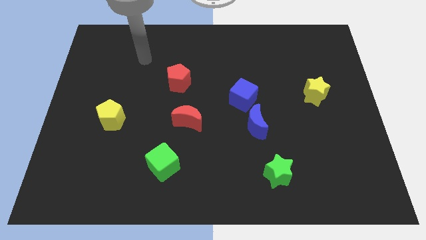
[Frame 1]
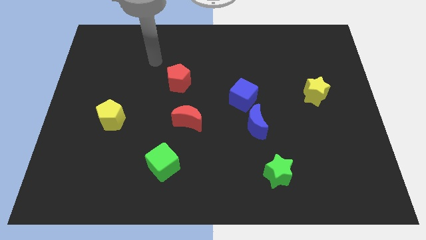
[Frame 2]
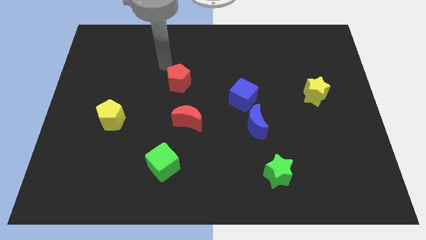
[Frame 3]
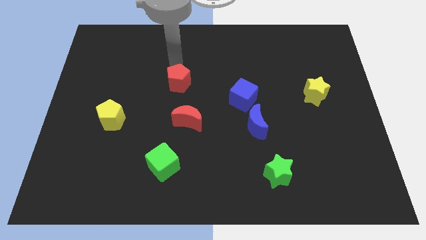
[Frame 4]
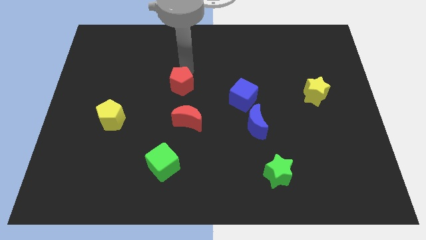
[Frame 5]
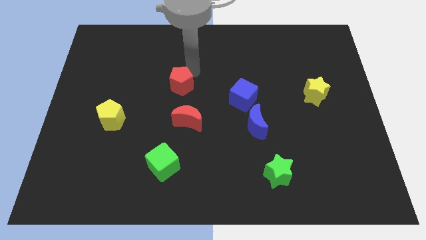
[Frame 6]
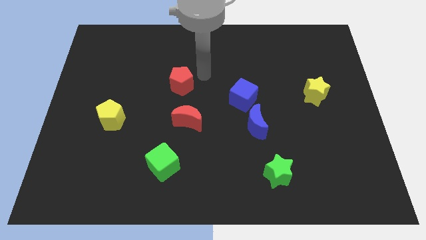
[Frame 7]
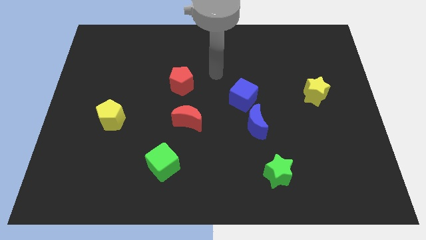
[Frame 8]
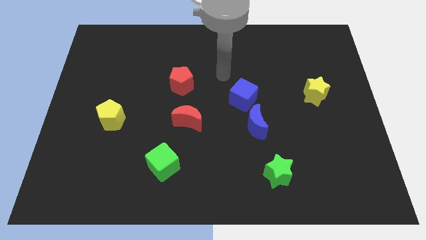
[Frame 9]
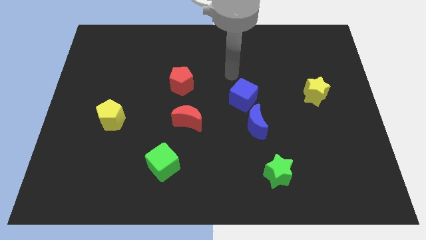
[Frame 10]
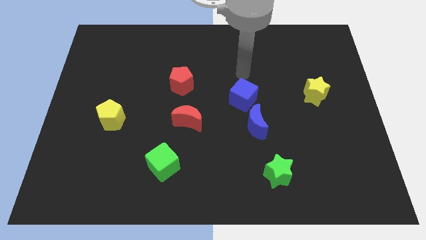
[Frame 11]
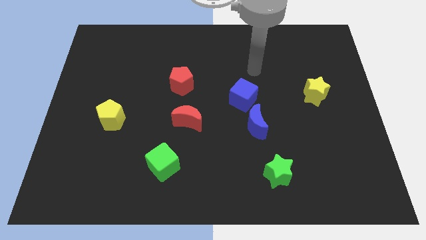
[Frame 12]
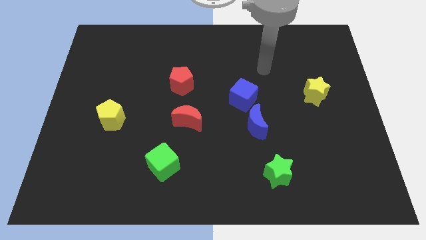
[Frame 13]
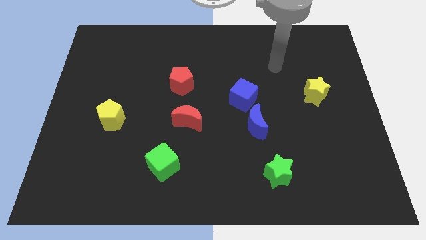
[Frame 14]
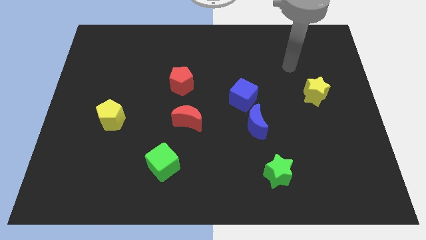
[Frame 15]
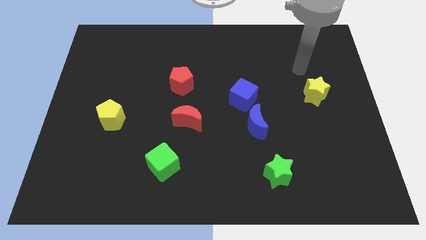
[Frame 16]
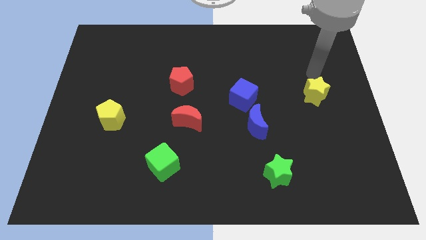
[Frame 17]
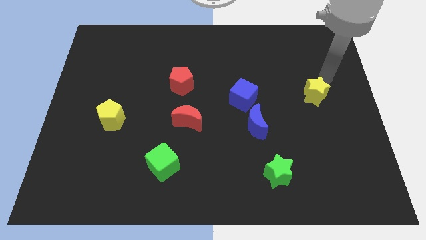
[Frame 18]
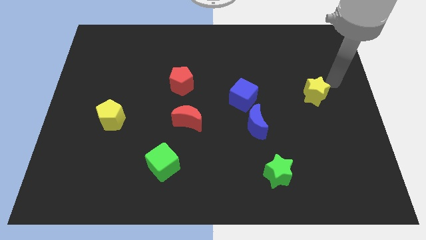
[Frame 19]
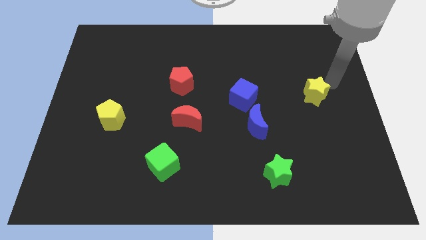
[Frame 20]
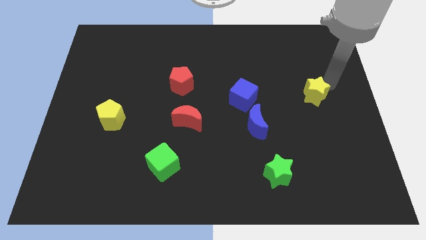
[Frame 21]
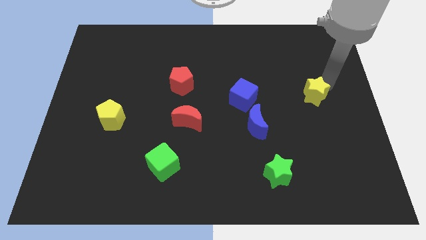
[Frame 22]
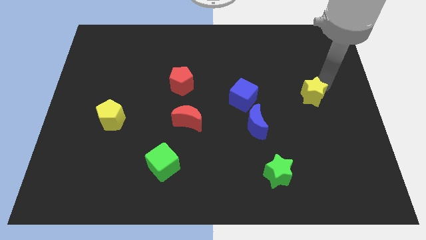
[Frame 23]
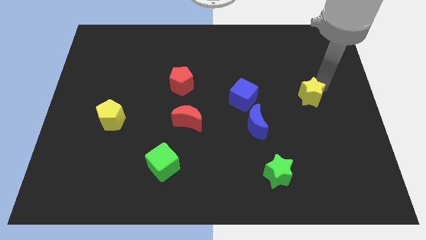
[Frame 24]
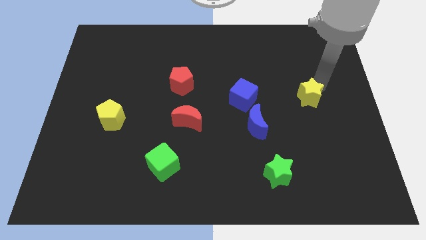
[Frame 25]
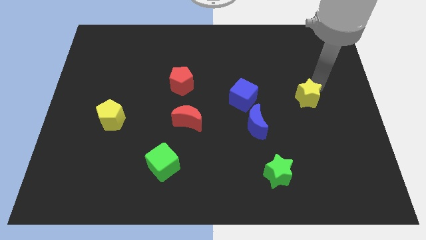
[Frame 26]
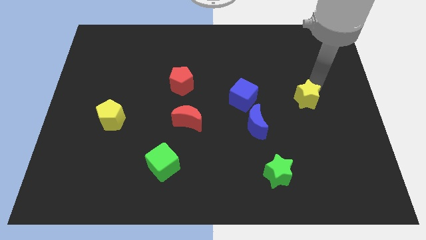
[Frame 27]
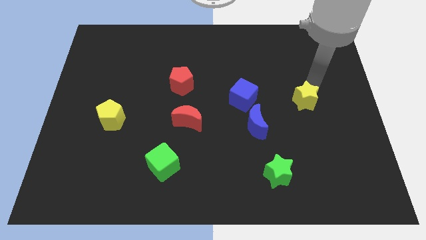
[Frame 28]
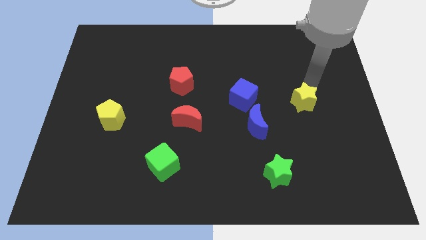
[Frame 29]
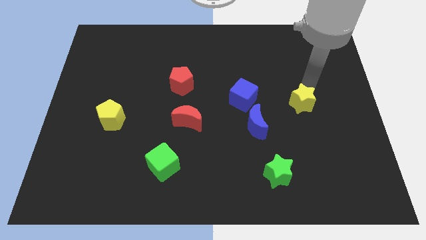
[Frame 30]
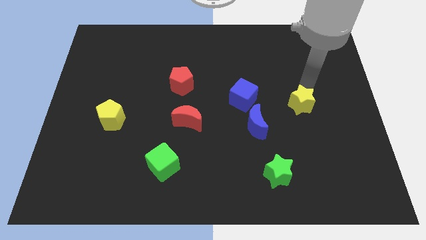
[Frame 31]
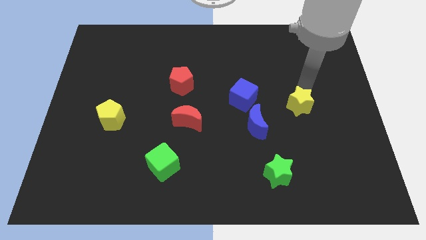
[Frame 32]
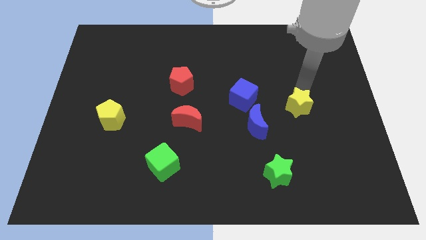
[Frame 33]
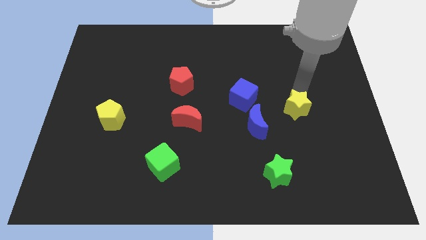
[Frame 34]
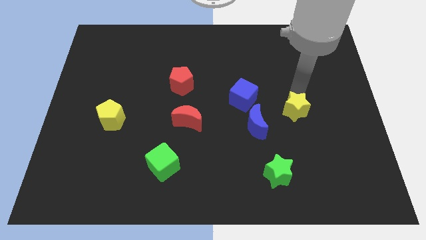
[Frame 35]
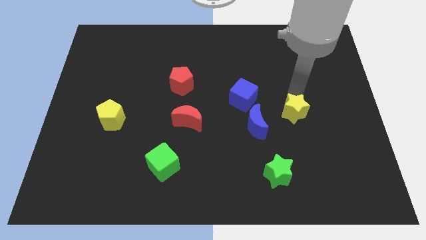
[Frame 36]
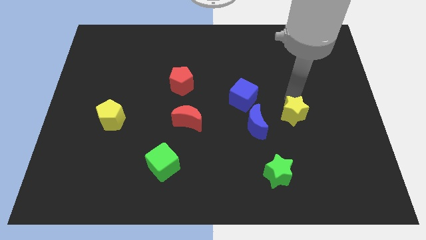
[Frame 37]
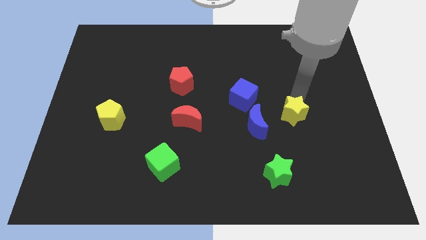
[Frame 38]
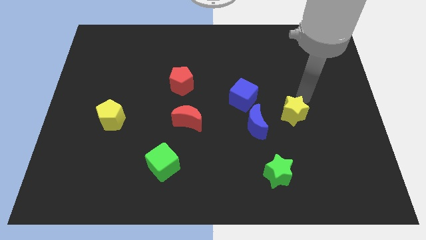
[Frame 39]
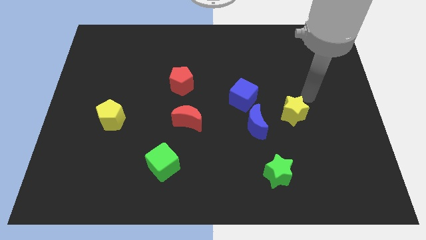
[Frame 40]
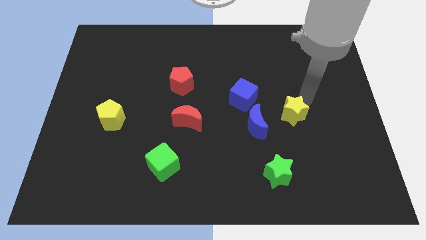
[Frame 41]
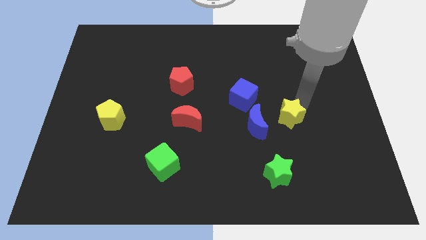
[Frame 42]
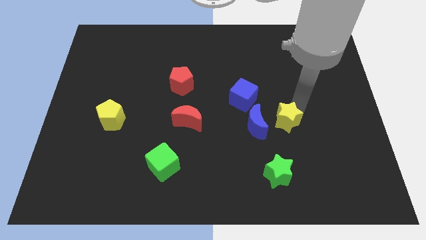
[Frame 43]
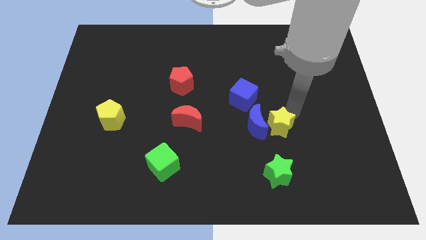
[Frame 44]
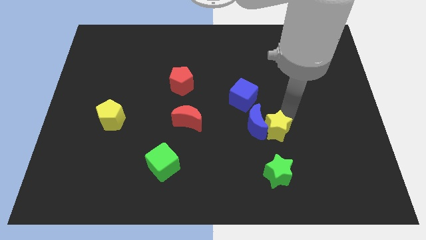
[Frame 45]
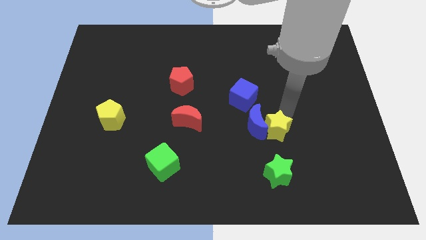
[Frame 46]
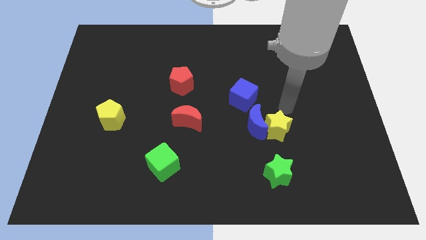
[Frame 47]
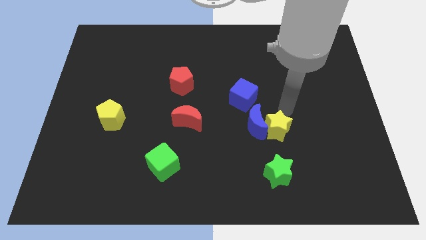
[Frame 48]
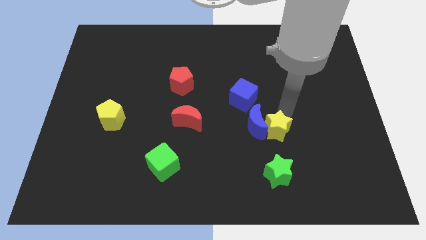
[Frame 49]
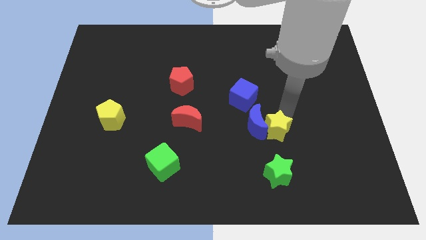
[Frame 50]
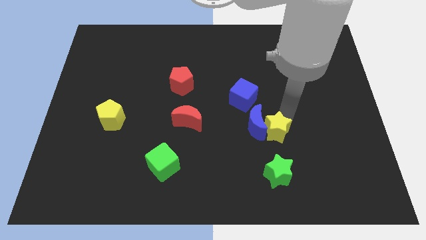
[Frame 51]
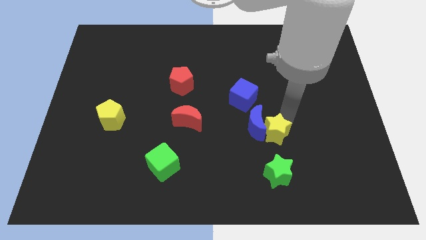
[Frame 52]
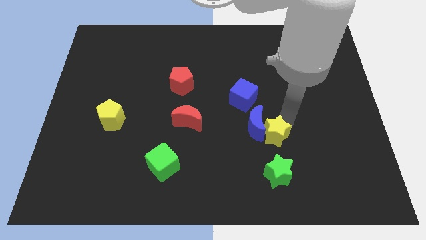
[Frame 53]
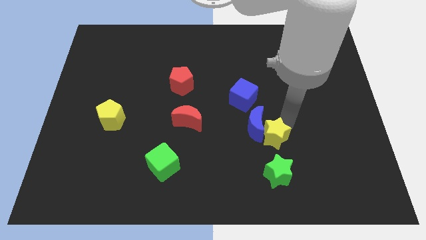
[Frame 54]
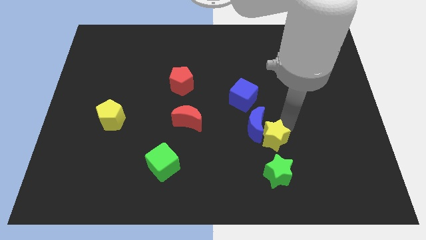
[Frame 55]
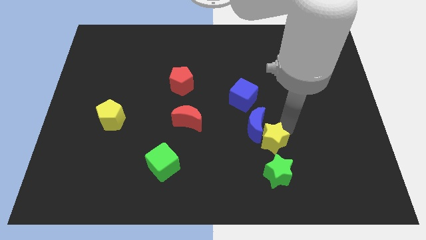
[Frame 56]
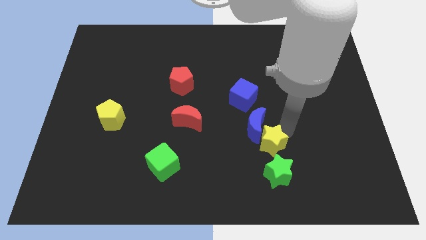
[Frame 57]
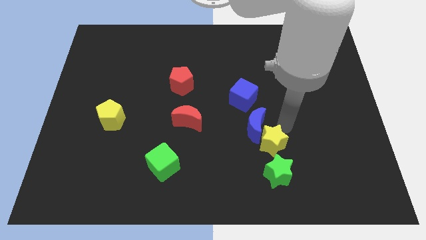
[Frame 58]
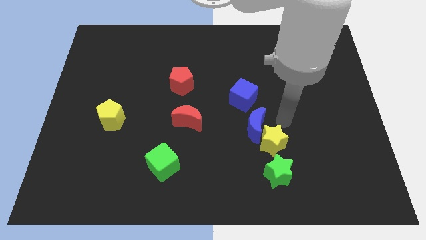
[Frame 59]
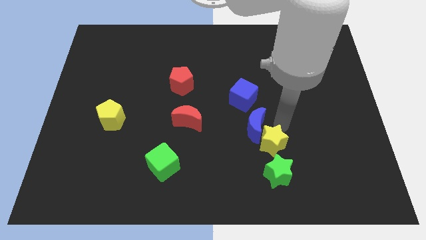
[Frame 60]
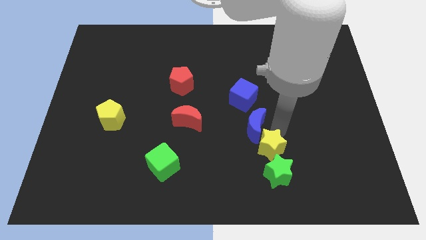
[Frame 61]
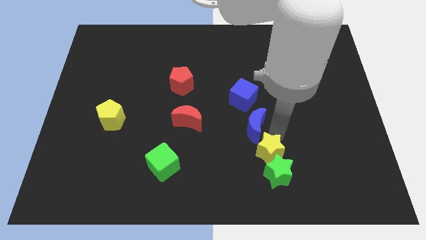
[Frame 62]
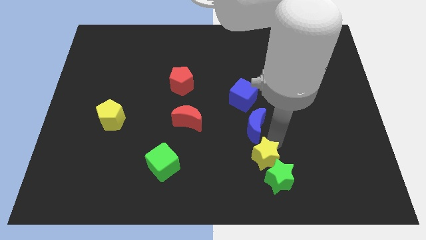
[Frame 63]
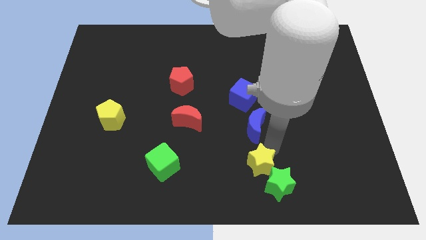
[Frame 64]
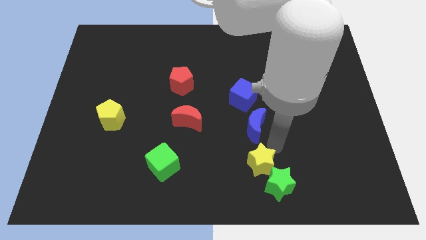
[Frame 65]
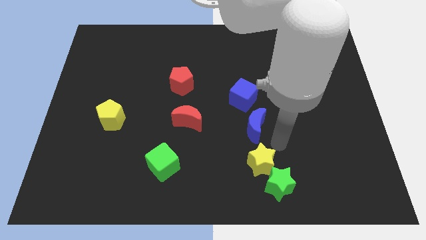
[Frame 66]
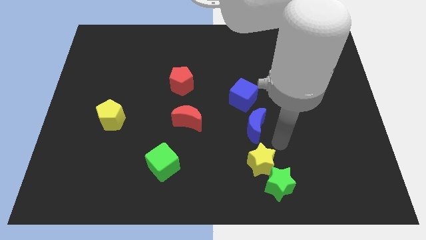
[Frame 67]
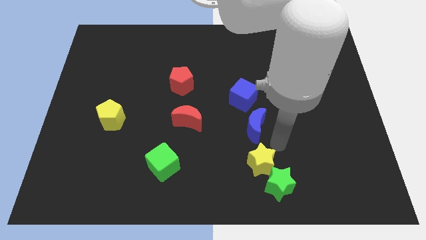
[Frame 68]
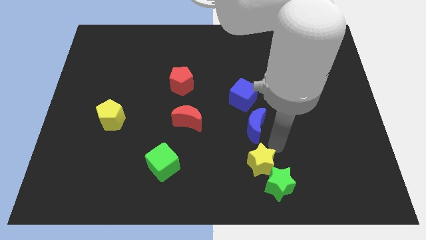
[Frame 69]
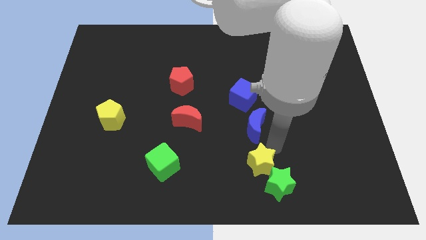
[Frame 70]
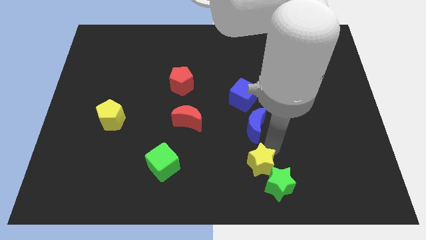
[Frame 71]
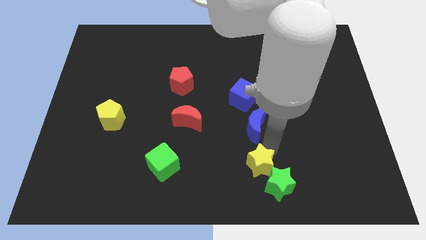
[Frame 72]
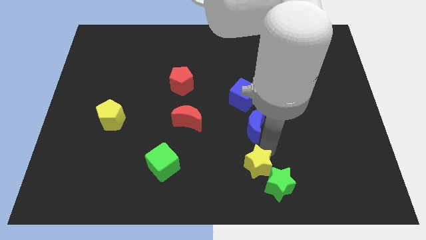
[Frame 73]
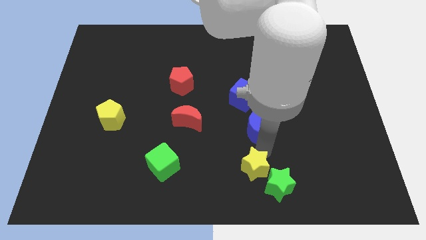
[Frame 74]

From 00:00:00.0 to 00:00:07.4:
put the yellow star to the bottom side
